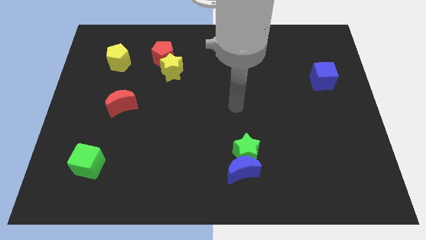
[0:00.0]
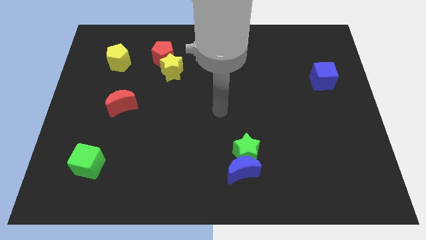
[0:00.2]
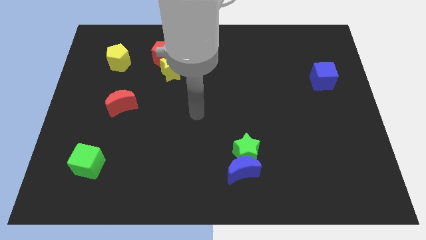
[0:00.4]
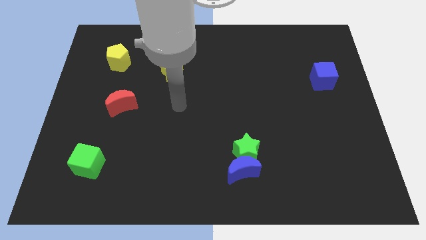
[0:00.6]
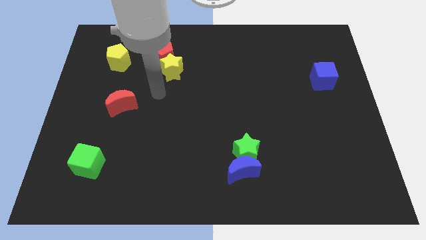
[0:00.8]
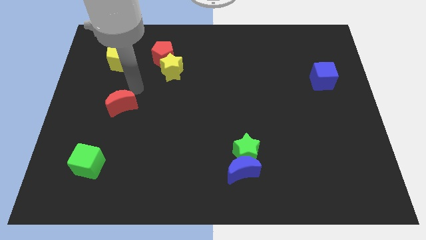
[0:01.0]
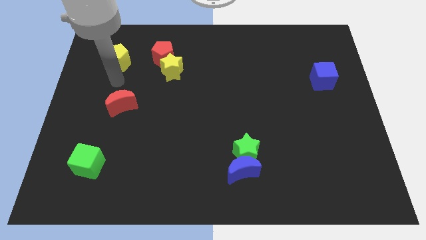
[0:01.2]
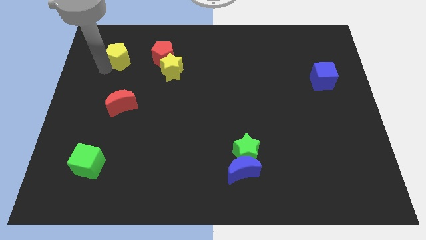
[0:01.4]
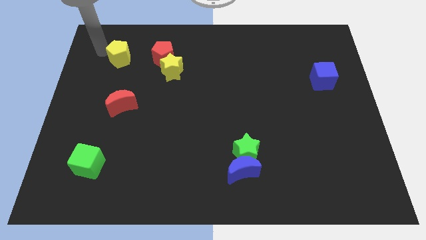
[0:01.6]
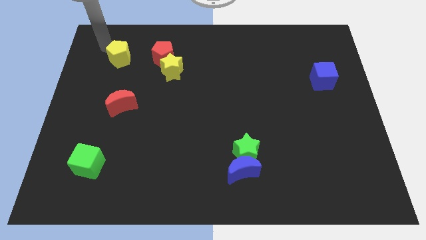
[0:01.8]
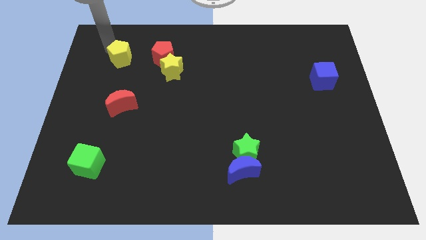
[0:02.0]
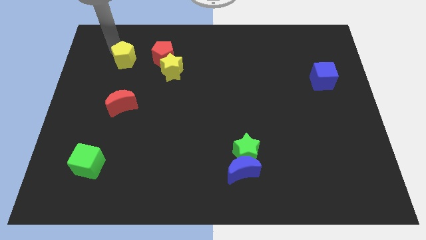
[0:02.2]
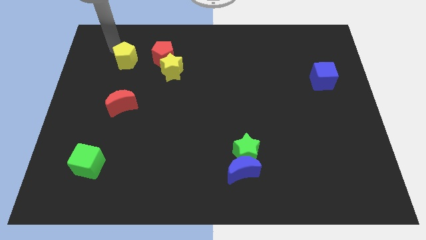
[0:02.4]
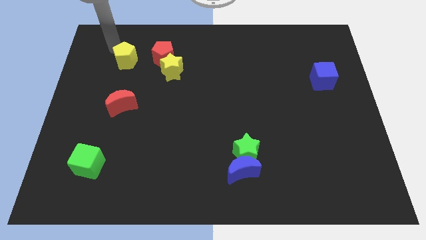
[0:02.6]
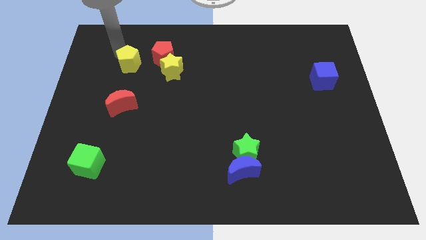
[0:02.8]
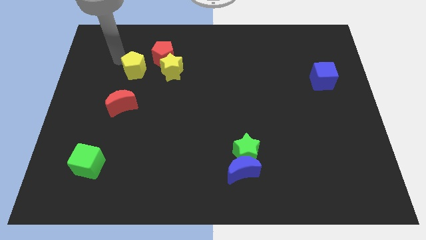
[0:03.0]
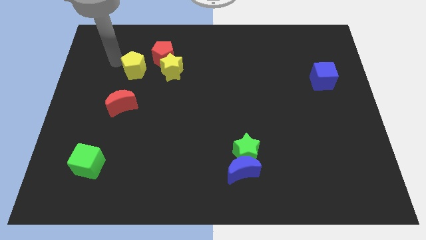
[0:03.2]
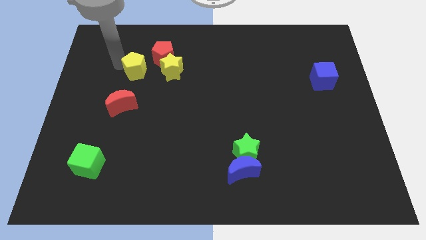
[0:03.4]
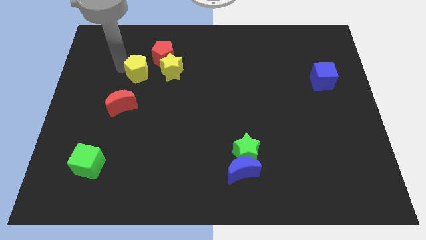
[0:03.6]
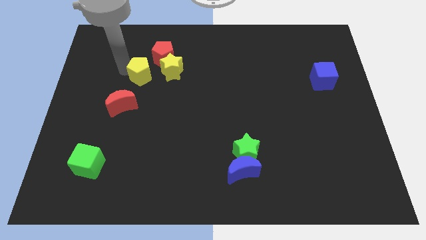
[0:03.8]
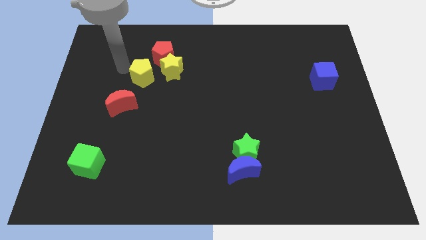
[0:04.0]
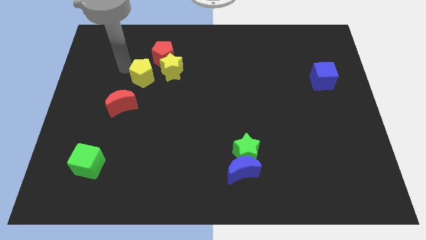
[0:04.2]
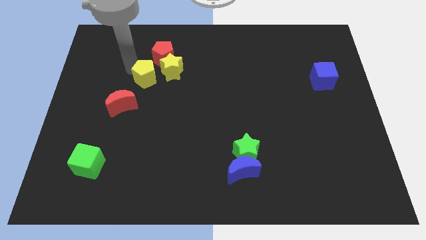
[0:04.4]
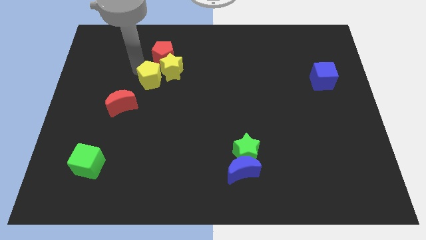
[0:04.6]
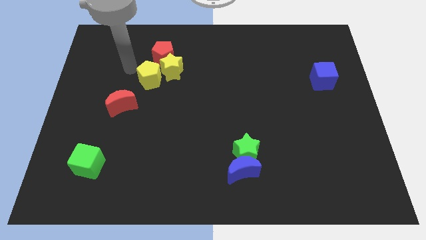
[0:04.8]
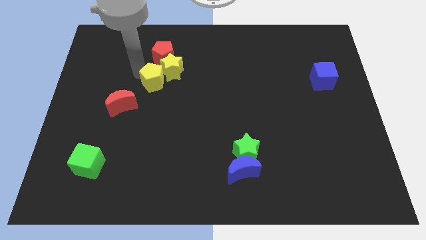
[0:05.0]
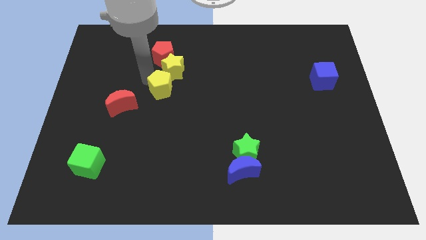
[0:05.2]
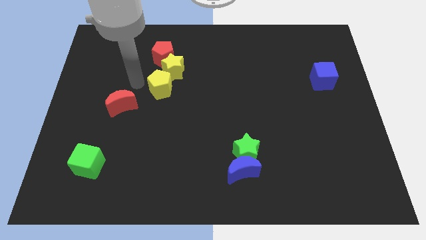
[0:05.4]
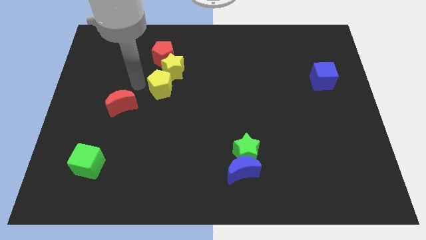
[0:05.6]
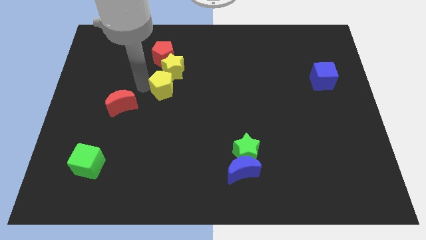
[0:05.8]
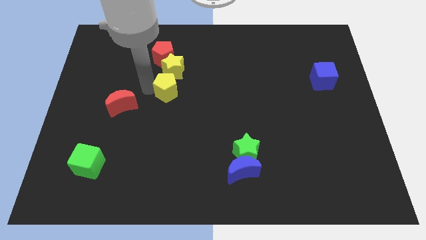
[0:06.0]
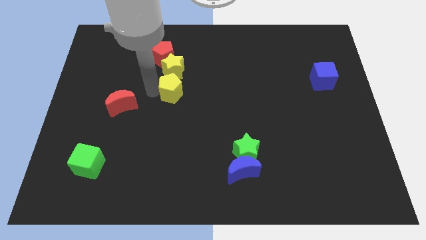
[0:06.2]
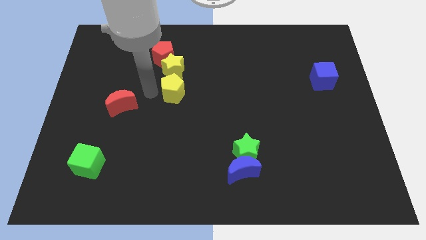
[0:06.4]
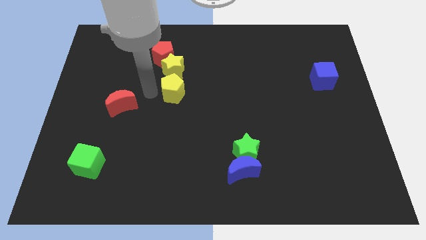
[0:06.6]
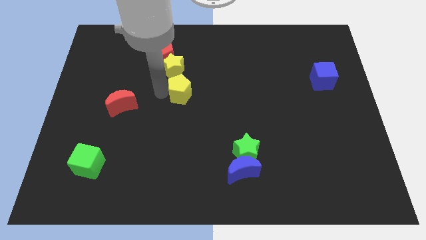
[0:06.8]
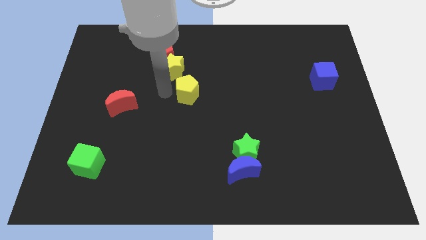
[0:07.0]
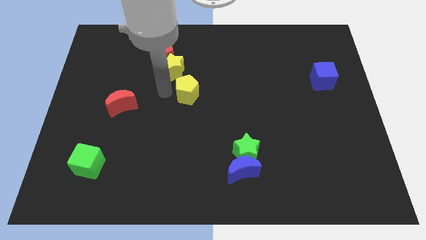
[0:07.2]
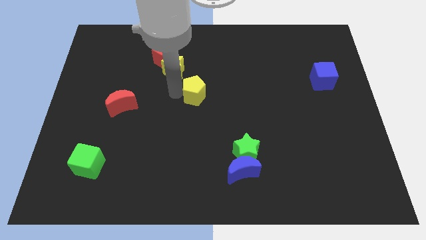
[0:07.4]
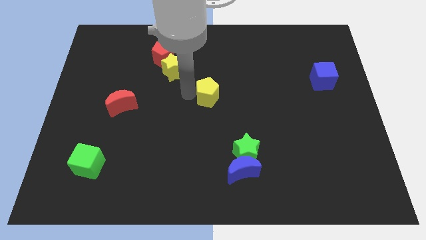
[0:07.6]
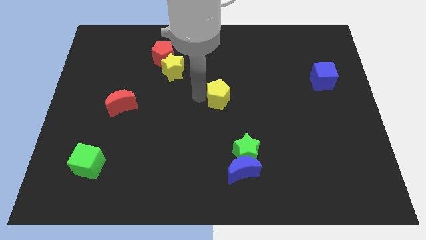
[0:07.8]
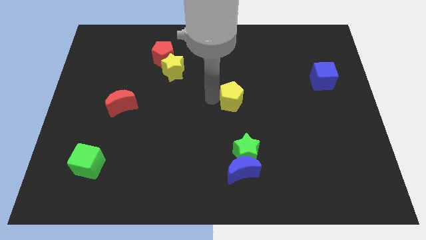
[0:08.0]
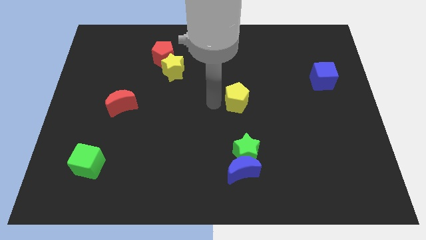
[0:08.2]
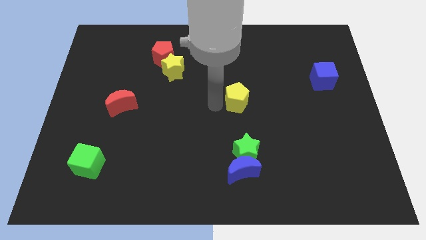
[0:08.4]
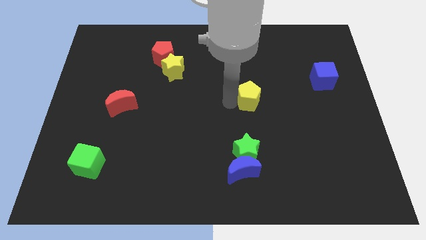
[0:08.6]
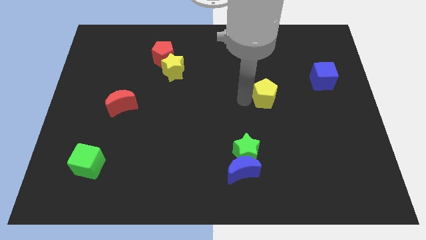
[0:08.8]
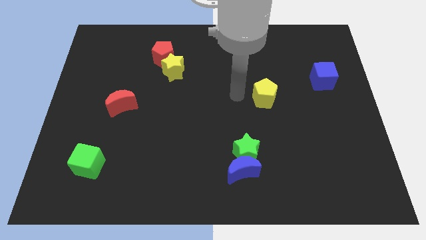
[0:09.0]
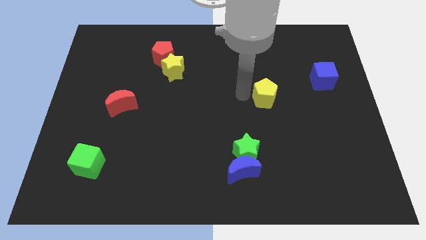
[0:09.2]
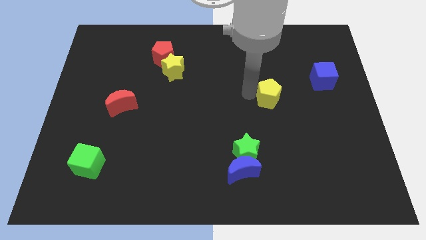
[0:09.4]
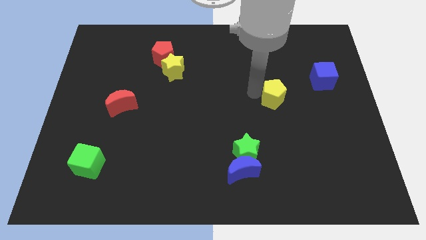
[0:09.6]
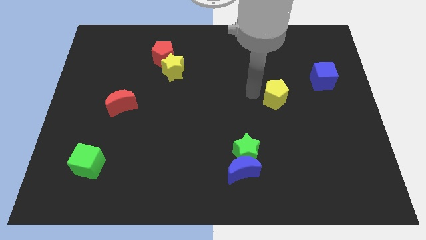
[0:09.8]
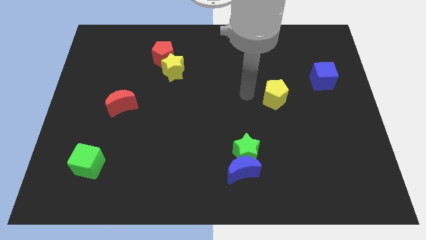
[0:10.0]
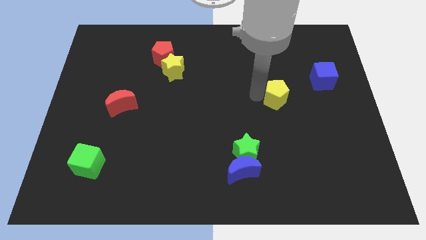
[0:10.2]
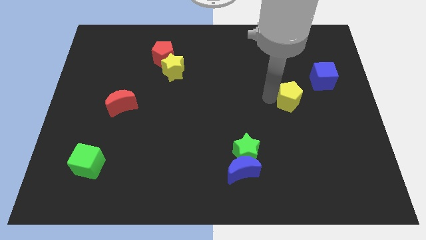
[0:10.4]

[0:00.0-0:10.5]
put the yellow pentagon diagonally down and to the left of the blue cube
